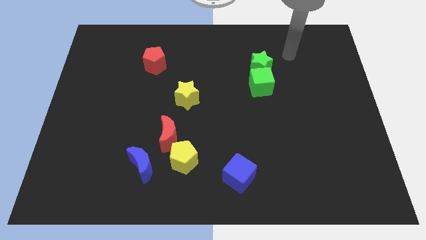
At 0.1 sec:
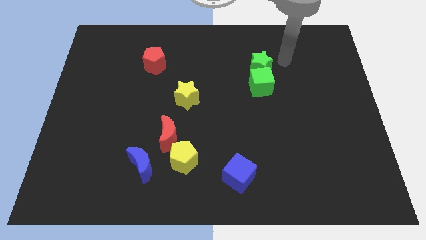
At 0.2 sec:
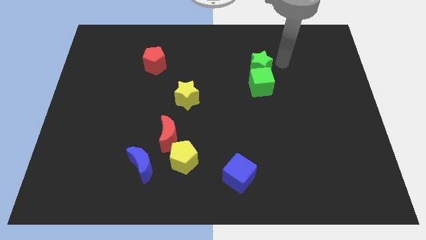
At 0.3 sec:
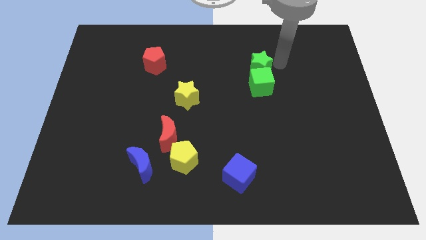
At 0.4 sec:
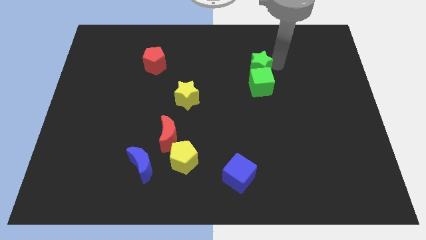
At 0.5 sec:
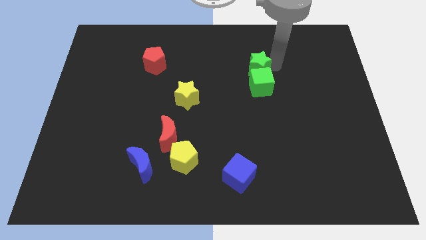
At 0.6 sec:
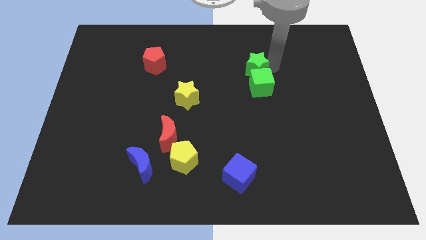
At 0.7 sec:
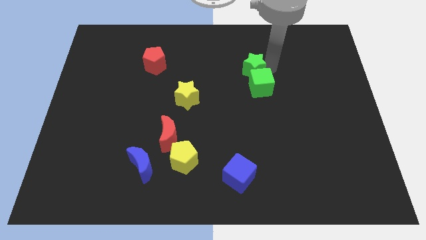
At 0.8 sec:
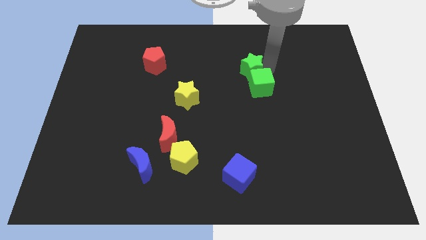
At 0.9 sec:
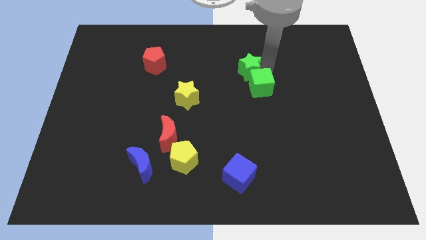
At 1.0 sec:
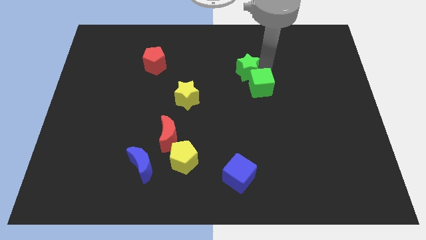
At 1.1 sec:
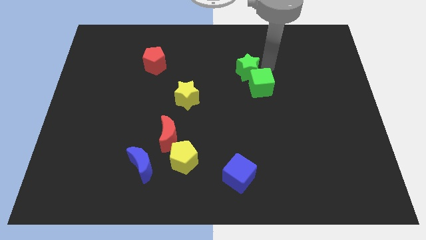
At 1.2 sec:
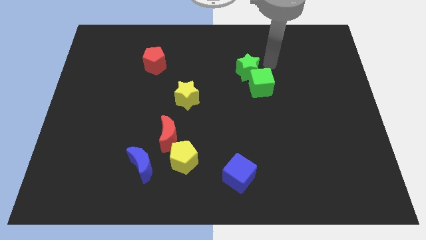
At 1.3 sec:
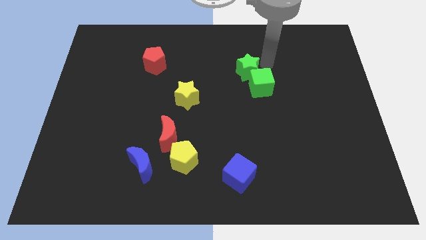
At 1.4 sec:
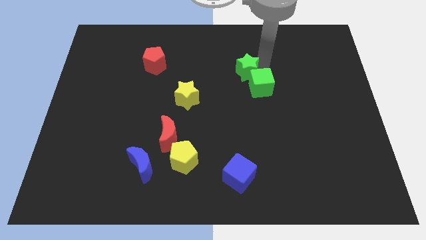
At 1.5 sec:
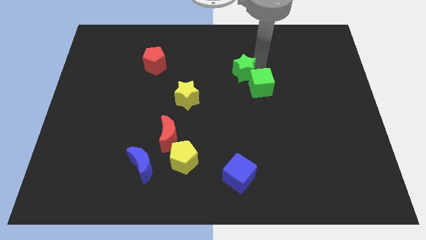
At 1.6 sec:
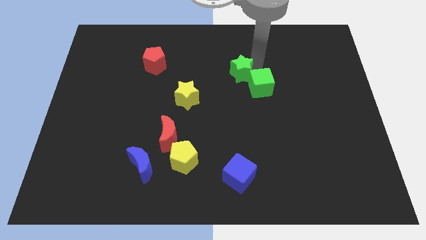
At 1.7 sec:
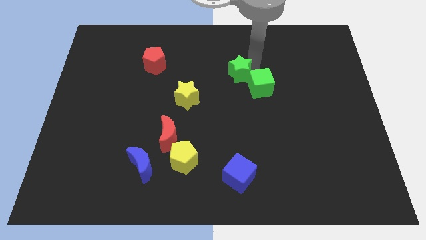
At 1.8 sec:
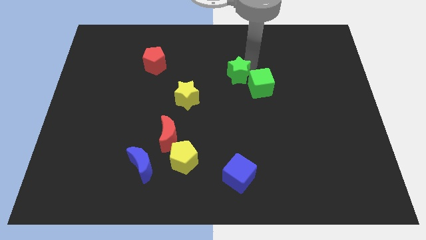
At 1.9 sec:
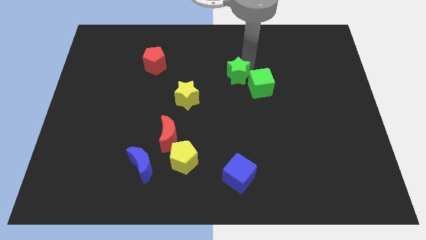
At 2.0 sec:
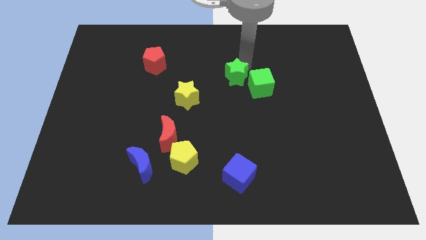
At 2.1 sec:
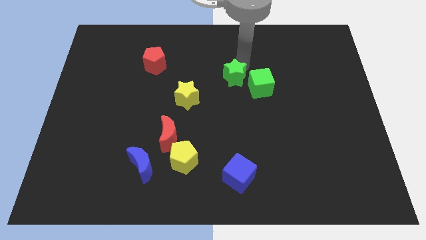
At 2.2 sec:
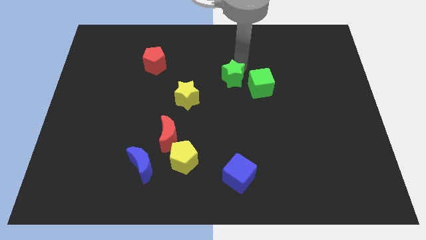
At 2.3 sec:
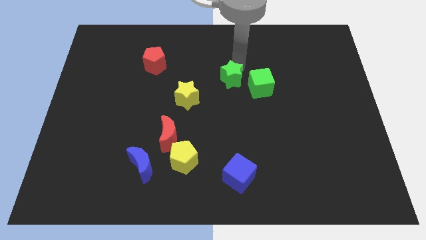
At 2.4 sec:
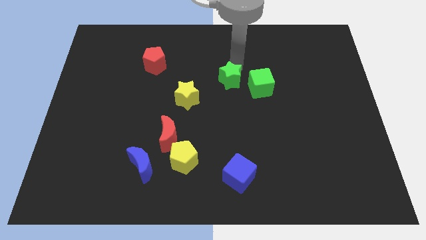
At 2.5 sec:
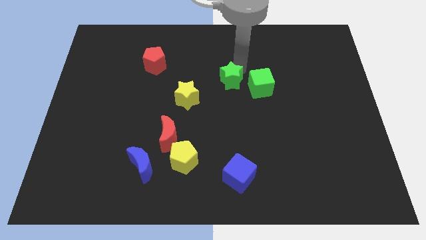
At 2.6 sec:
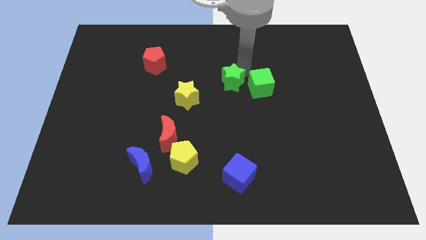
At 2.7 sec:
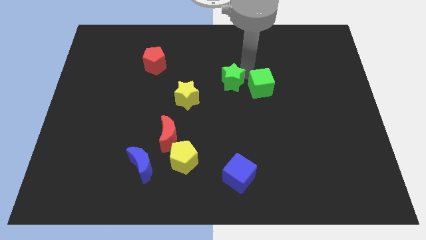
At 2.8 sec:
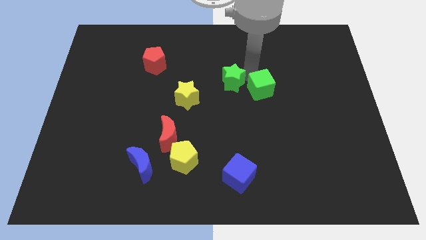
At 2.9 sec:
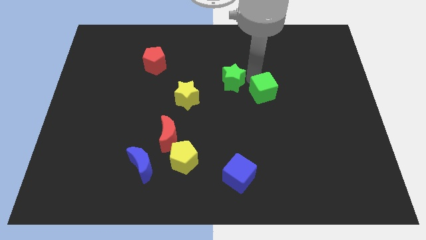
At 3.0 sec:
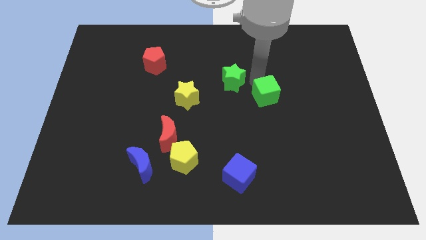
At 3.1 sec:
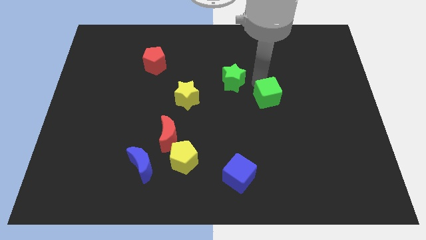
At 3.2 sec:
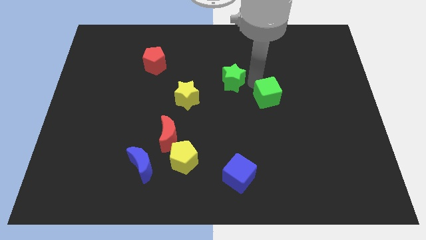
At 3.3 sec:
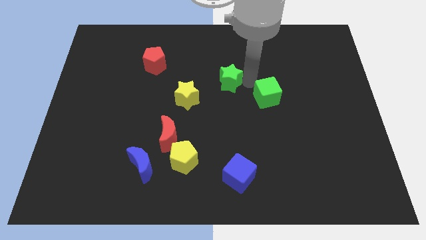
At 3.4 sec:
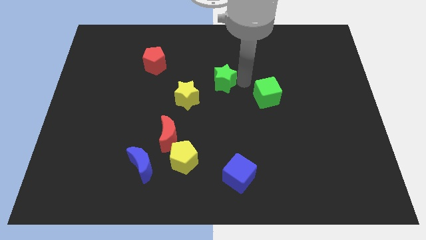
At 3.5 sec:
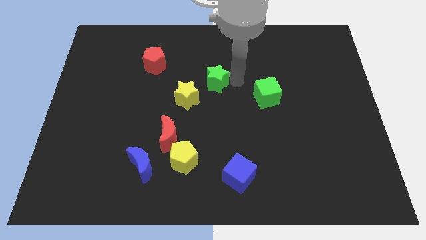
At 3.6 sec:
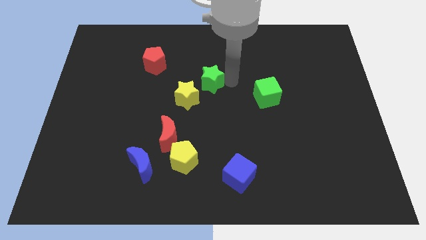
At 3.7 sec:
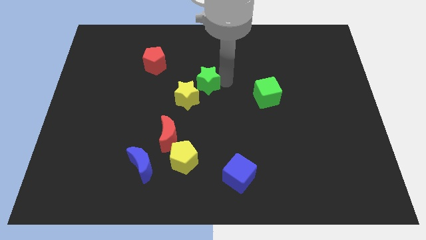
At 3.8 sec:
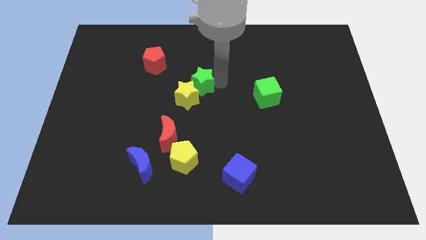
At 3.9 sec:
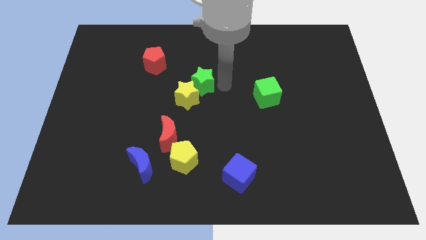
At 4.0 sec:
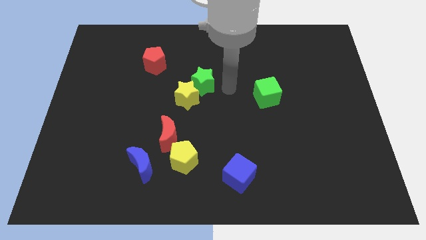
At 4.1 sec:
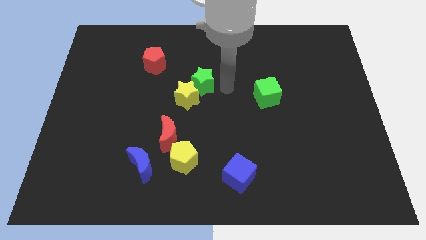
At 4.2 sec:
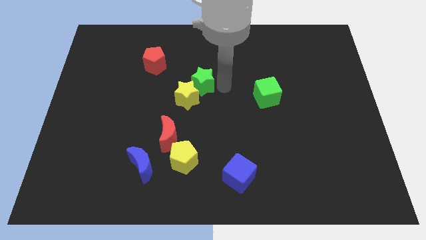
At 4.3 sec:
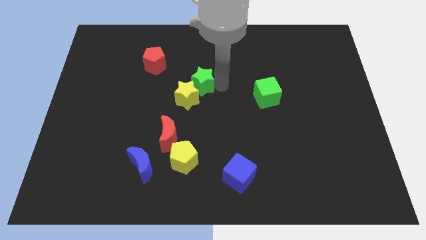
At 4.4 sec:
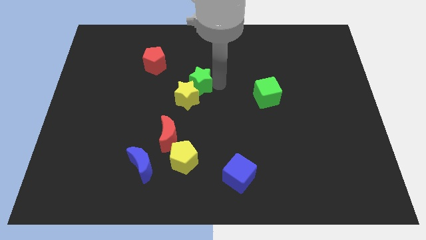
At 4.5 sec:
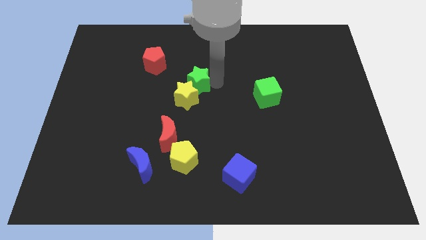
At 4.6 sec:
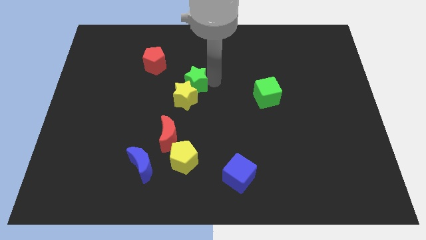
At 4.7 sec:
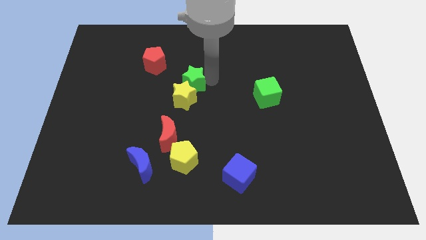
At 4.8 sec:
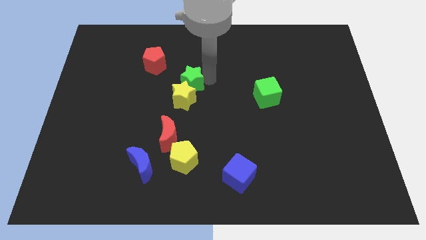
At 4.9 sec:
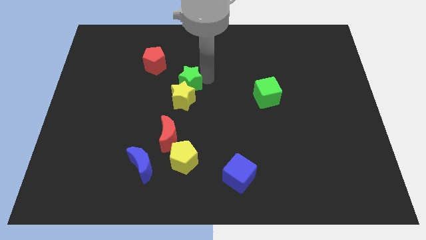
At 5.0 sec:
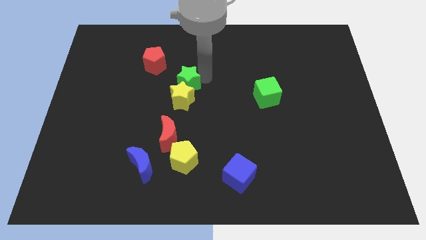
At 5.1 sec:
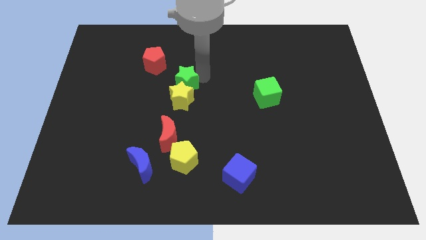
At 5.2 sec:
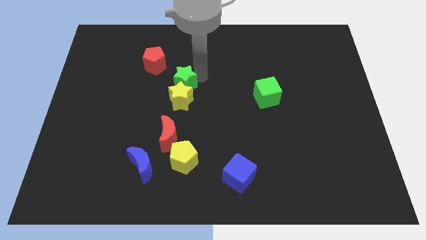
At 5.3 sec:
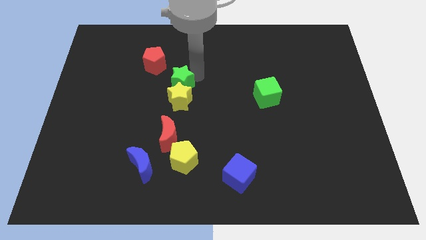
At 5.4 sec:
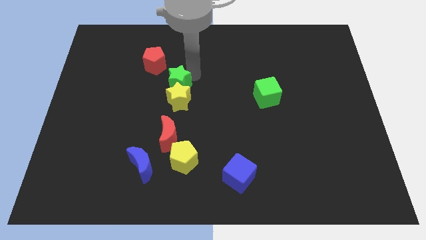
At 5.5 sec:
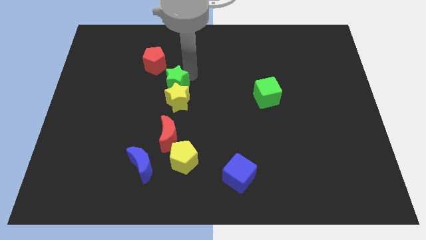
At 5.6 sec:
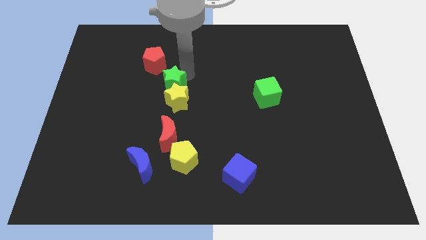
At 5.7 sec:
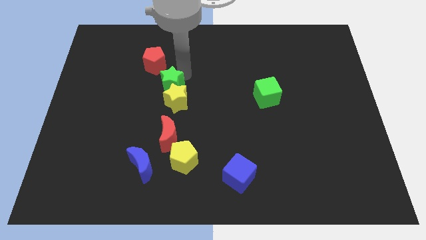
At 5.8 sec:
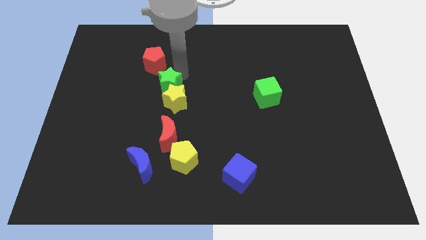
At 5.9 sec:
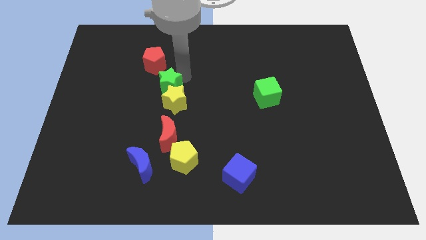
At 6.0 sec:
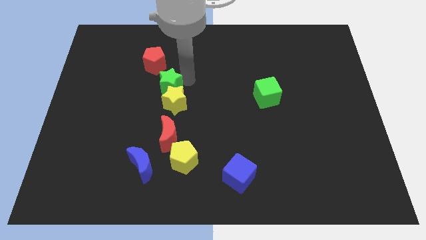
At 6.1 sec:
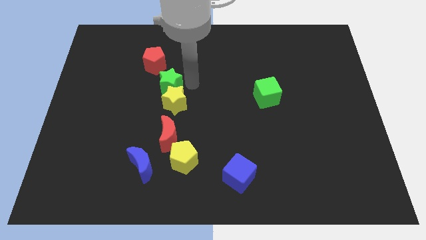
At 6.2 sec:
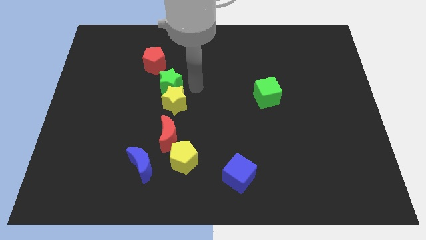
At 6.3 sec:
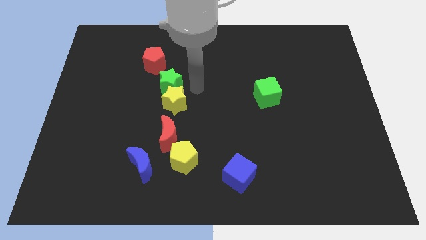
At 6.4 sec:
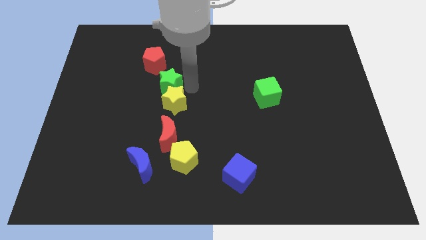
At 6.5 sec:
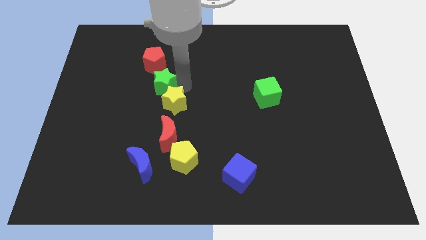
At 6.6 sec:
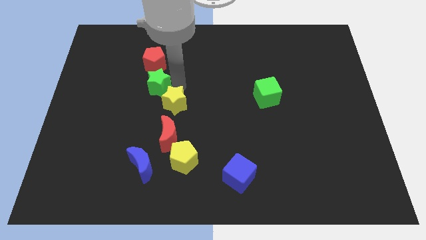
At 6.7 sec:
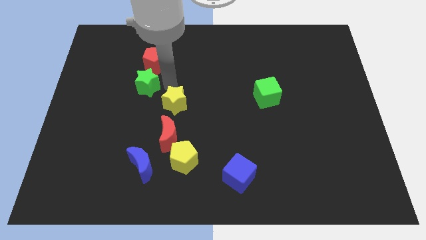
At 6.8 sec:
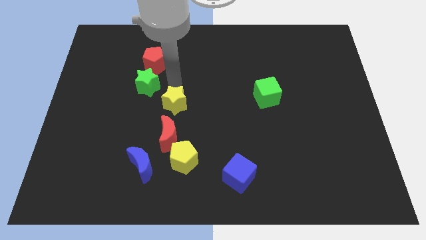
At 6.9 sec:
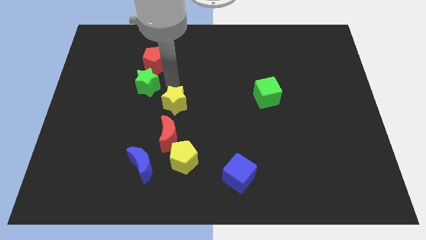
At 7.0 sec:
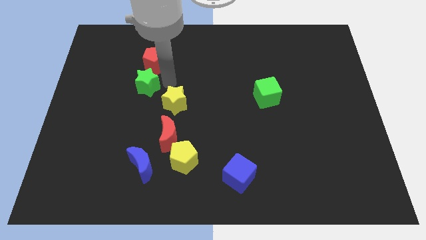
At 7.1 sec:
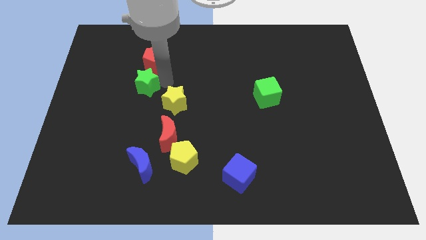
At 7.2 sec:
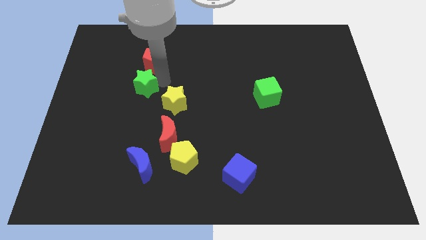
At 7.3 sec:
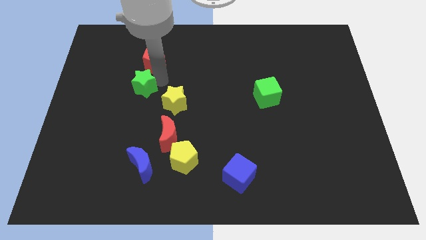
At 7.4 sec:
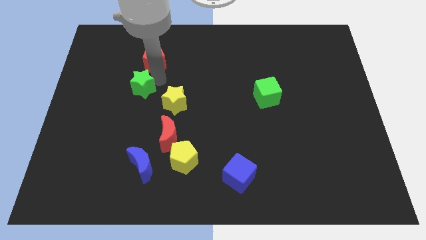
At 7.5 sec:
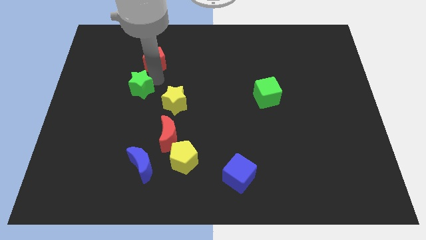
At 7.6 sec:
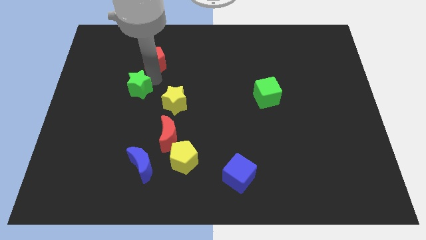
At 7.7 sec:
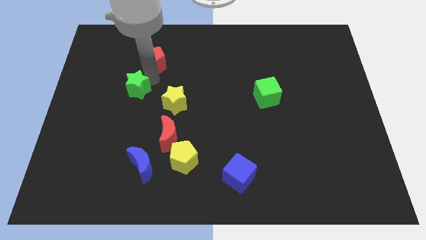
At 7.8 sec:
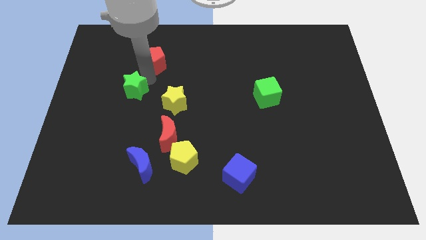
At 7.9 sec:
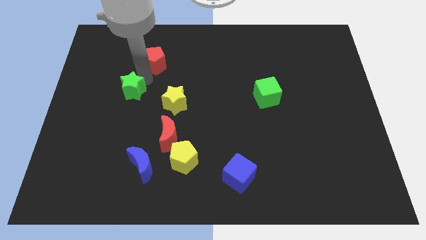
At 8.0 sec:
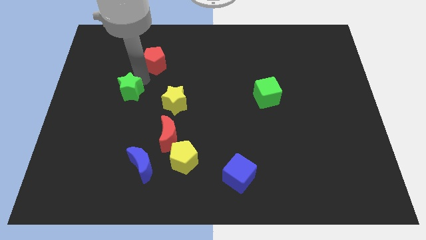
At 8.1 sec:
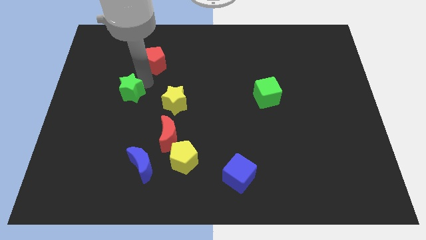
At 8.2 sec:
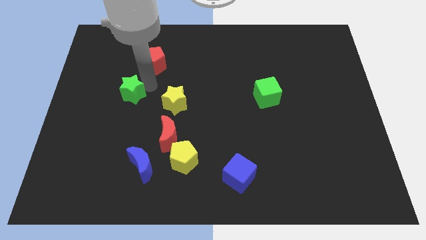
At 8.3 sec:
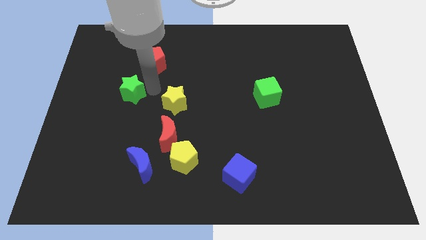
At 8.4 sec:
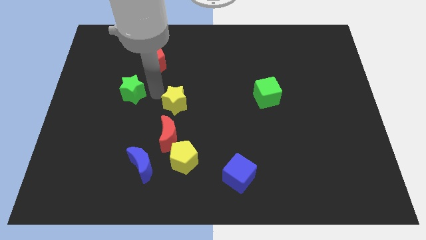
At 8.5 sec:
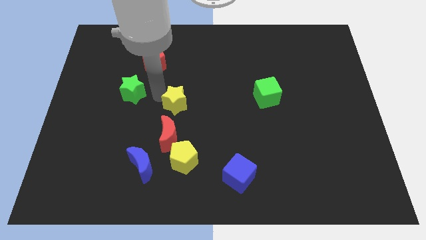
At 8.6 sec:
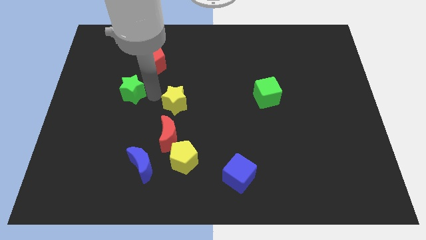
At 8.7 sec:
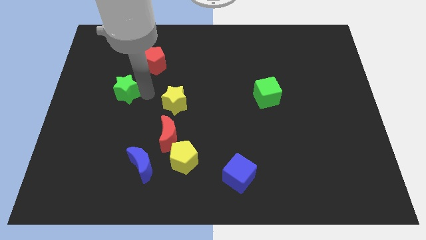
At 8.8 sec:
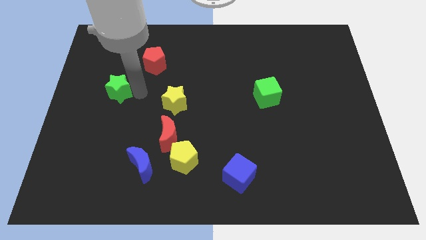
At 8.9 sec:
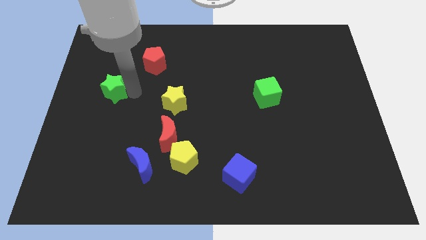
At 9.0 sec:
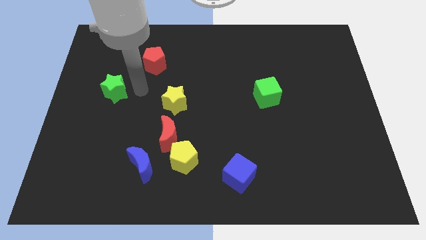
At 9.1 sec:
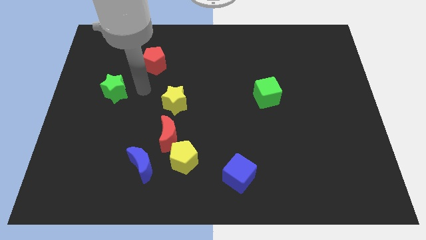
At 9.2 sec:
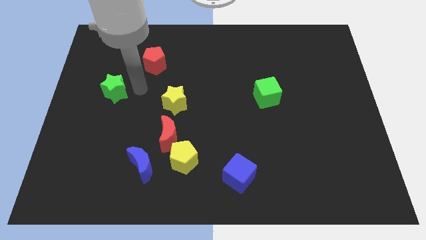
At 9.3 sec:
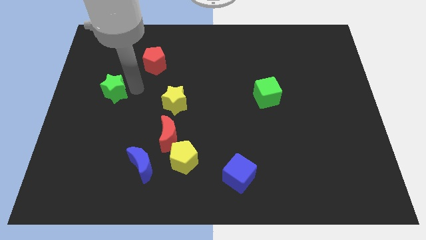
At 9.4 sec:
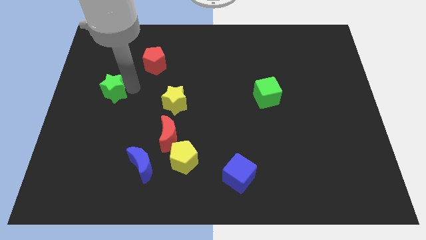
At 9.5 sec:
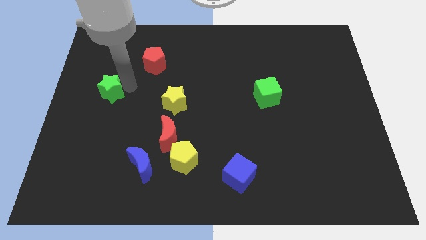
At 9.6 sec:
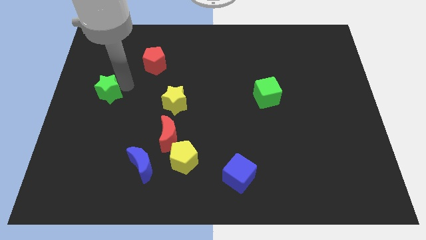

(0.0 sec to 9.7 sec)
put the green star to the left side of the board
